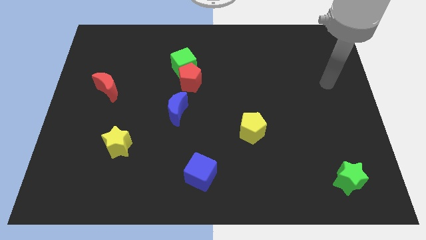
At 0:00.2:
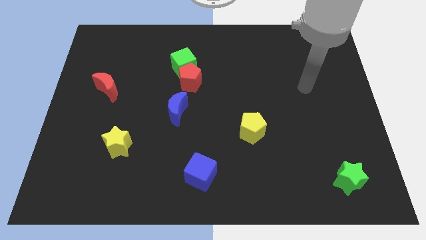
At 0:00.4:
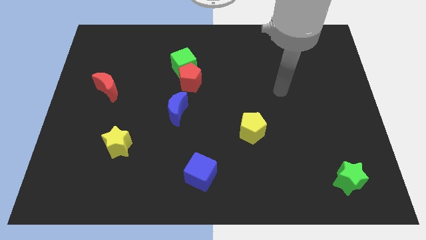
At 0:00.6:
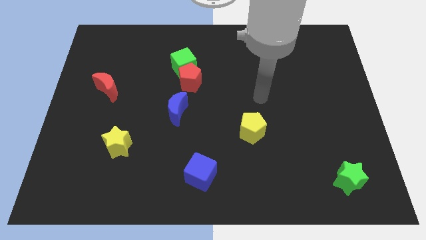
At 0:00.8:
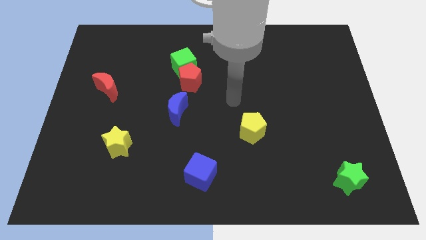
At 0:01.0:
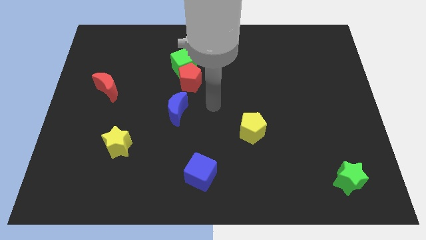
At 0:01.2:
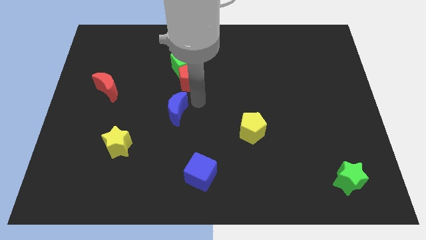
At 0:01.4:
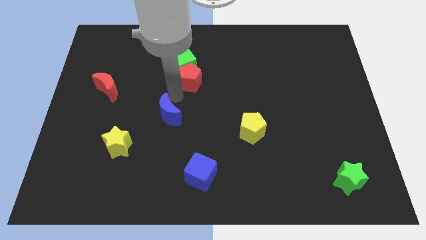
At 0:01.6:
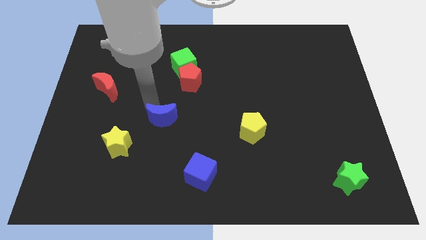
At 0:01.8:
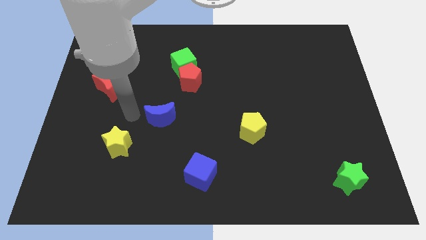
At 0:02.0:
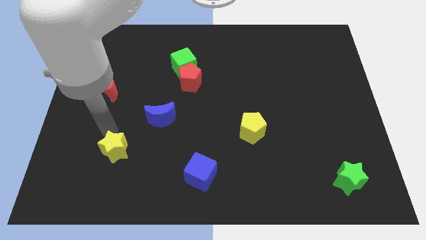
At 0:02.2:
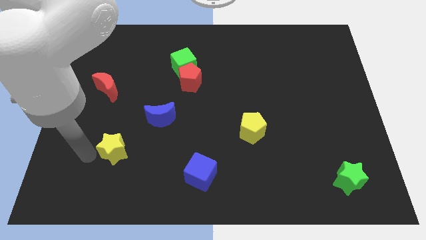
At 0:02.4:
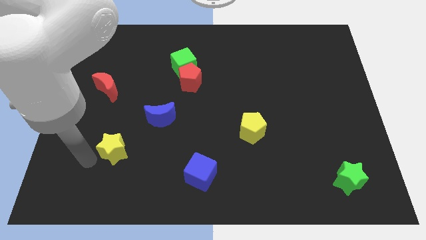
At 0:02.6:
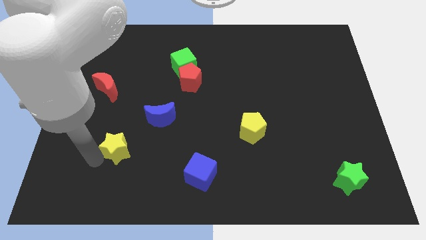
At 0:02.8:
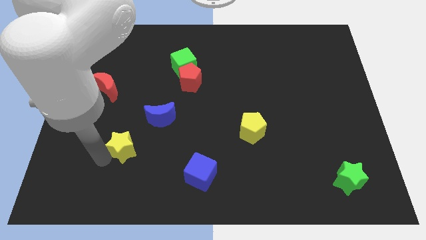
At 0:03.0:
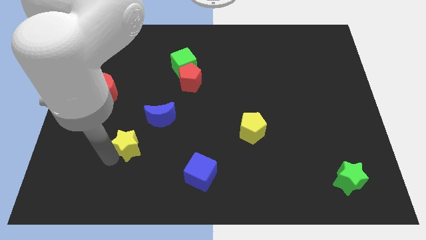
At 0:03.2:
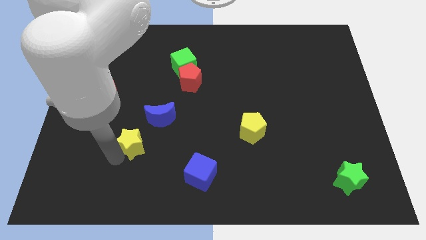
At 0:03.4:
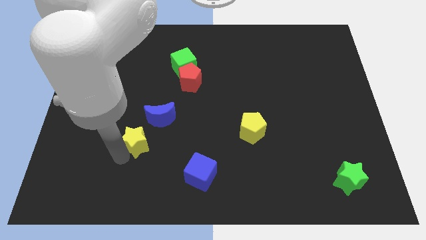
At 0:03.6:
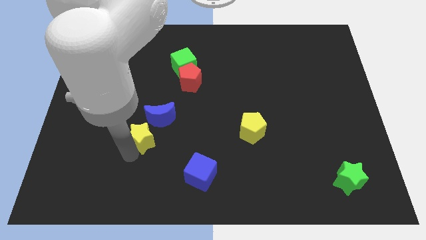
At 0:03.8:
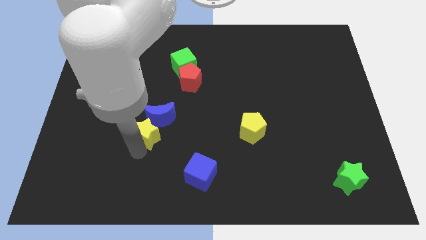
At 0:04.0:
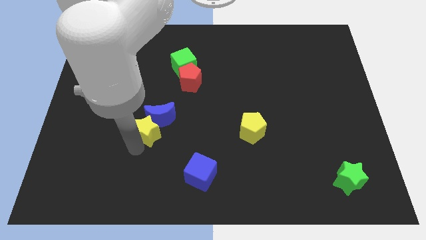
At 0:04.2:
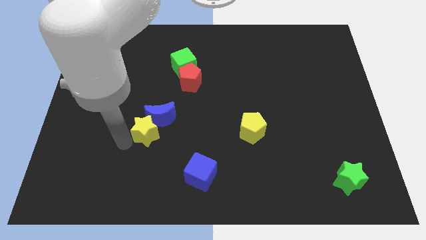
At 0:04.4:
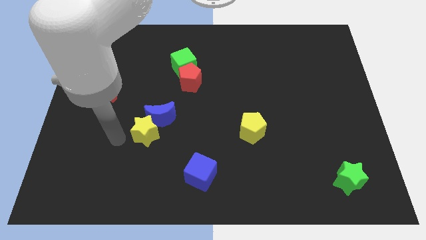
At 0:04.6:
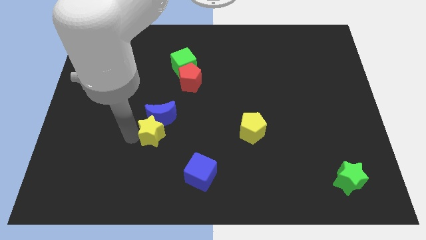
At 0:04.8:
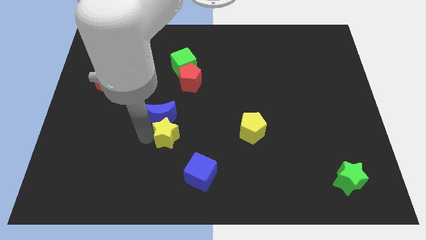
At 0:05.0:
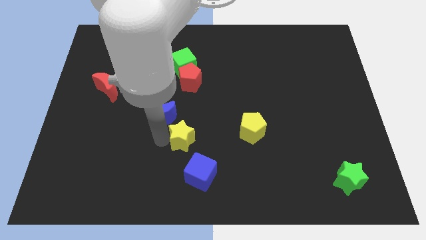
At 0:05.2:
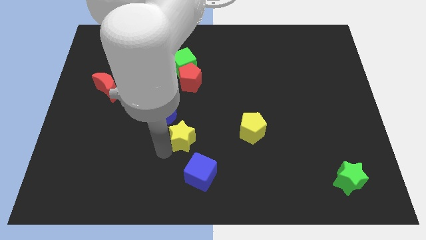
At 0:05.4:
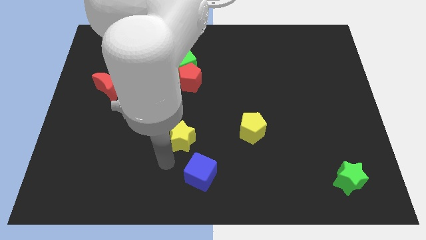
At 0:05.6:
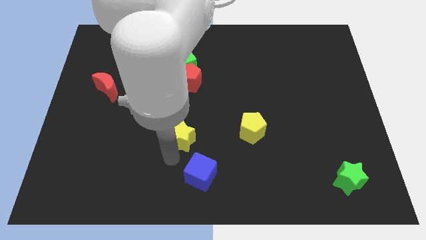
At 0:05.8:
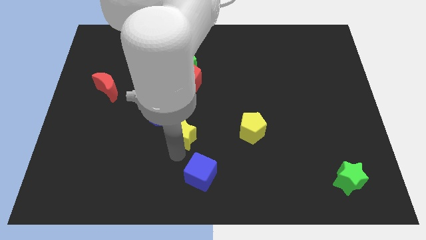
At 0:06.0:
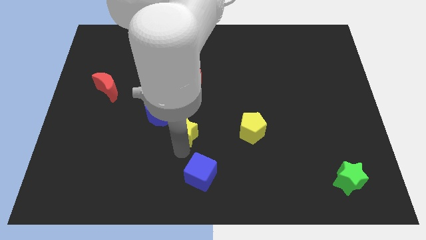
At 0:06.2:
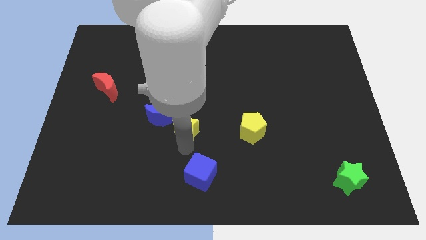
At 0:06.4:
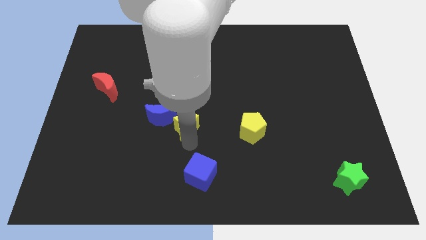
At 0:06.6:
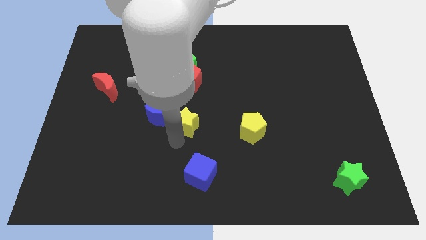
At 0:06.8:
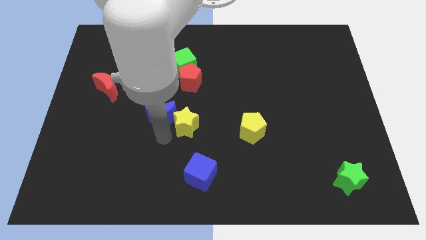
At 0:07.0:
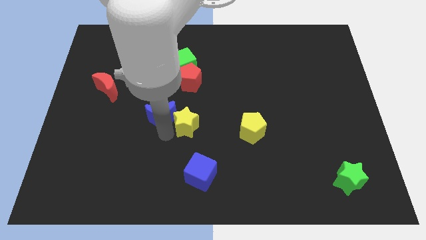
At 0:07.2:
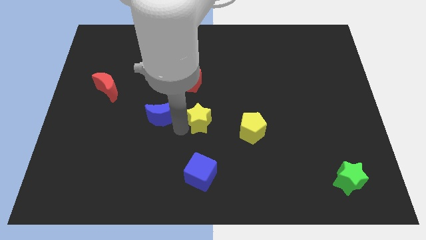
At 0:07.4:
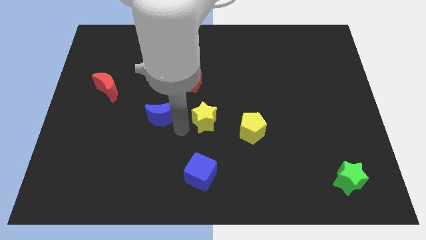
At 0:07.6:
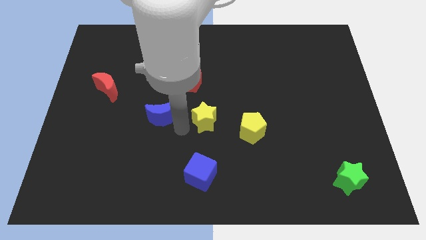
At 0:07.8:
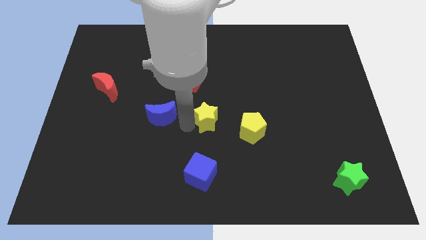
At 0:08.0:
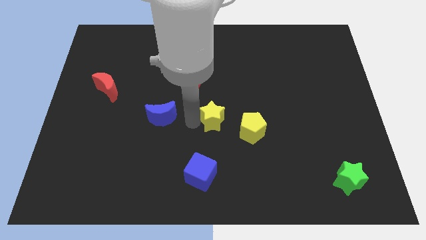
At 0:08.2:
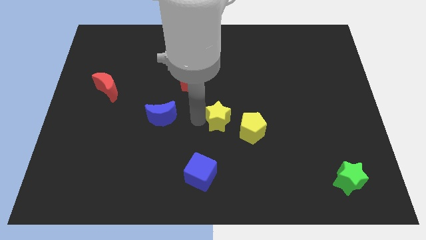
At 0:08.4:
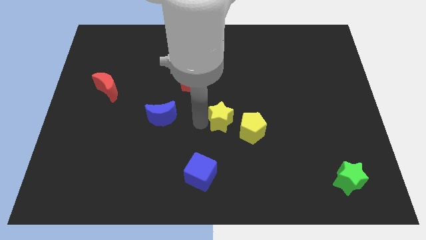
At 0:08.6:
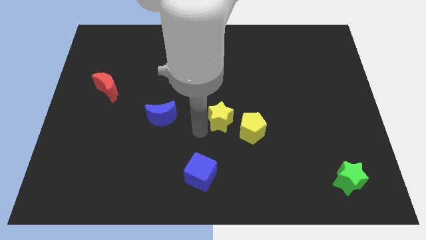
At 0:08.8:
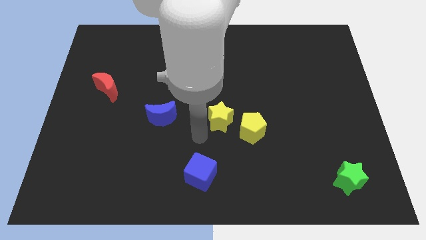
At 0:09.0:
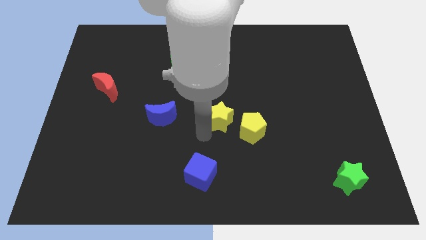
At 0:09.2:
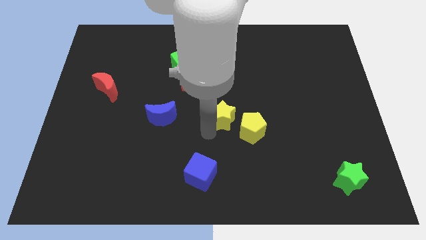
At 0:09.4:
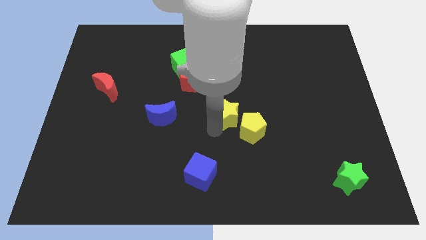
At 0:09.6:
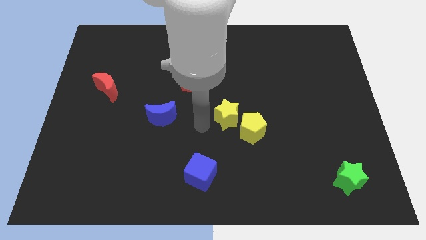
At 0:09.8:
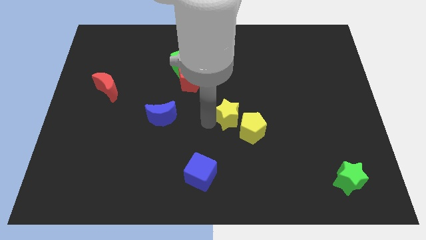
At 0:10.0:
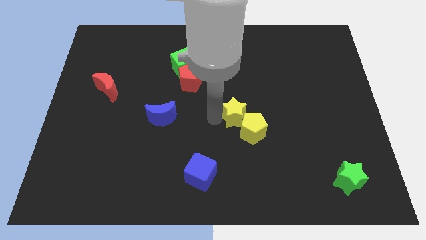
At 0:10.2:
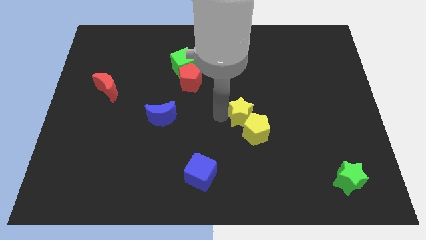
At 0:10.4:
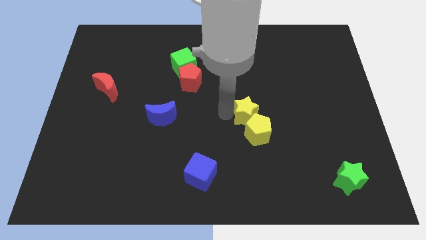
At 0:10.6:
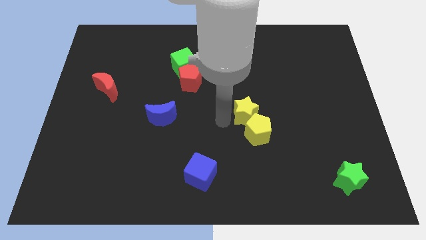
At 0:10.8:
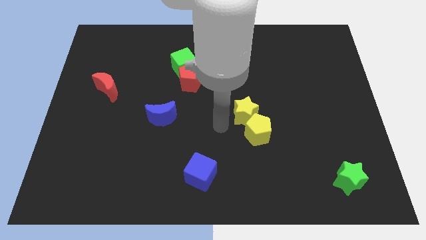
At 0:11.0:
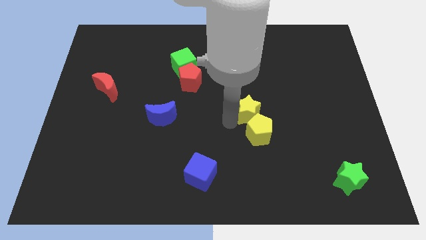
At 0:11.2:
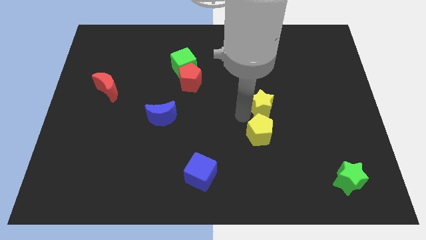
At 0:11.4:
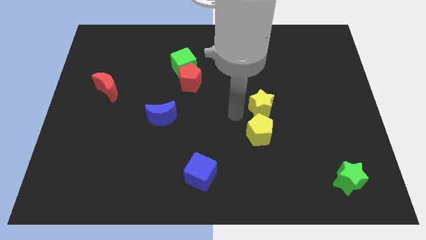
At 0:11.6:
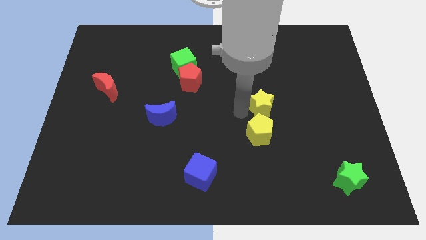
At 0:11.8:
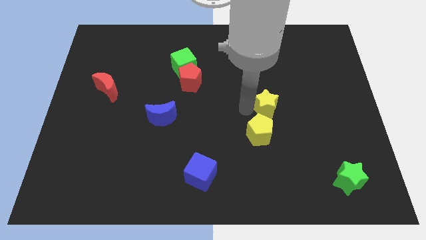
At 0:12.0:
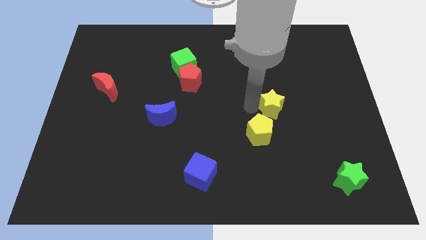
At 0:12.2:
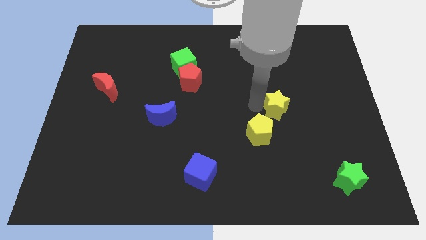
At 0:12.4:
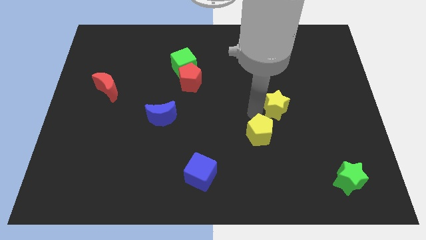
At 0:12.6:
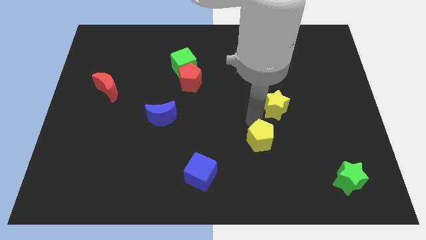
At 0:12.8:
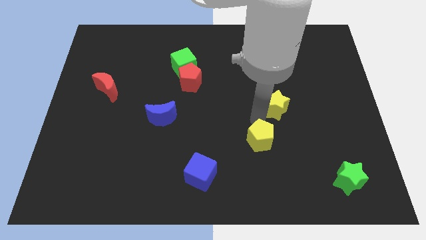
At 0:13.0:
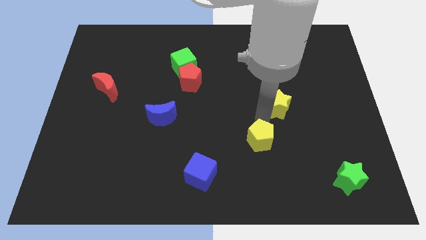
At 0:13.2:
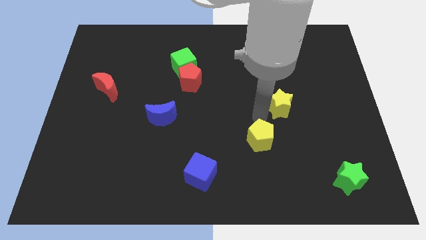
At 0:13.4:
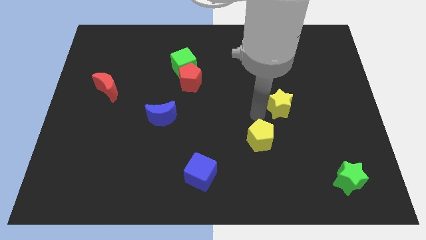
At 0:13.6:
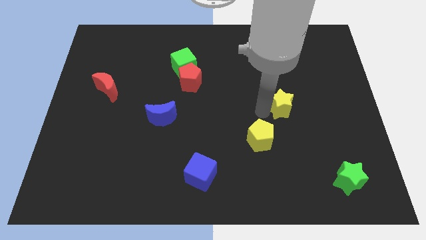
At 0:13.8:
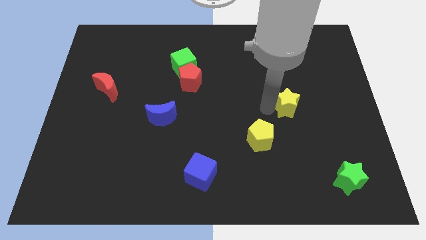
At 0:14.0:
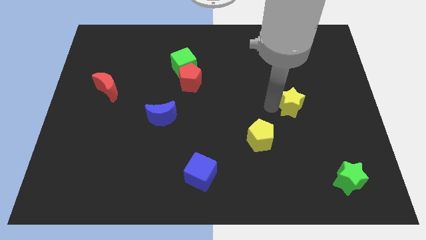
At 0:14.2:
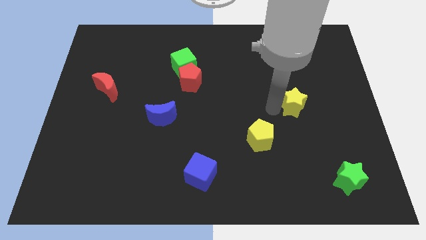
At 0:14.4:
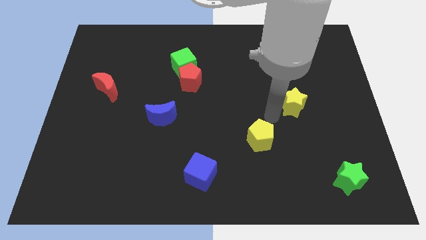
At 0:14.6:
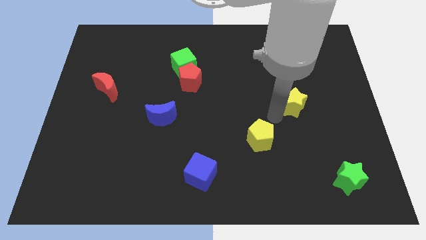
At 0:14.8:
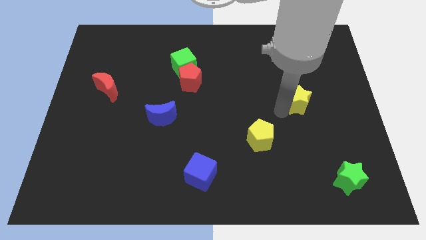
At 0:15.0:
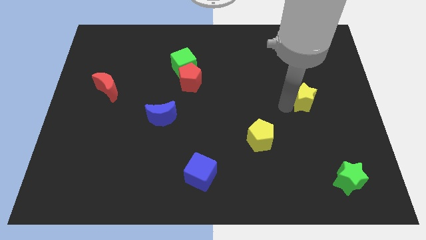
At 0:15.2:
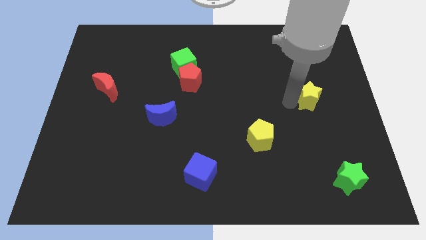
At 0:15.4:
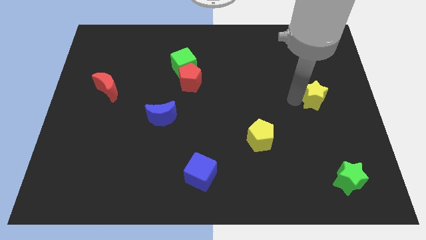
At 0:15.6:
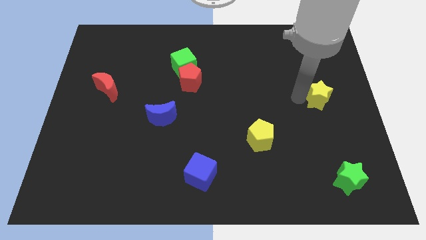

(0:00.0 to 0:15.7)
slide the yellow star to the right side of the board
